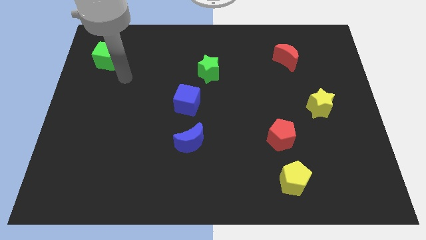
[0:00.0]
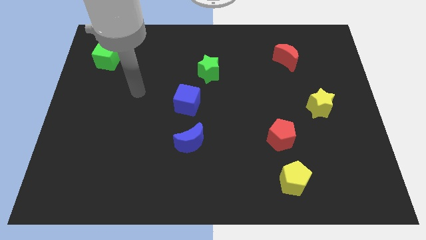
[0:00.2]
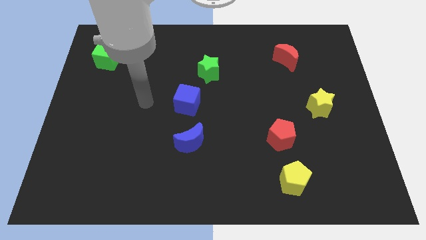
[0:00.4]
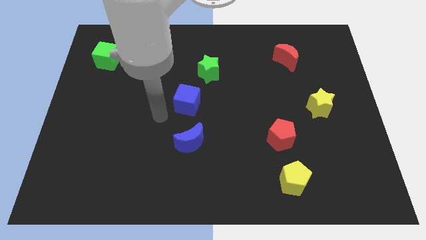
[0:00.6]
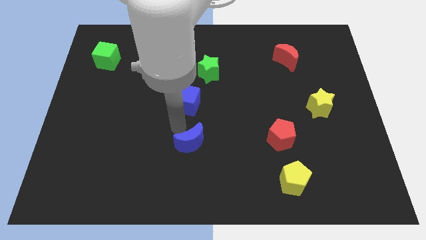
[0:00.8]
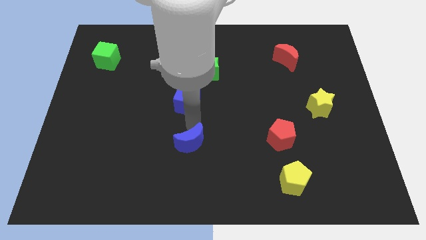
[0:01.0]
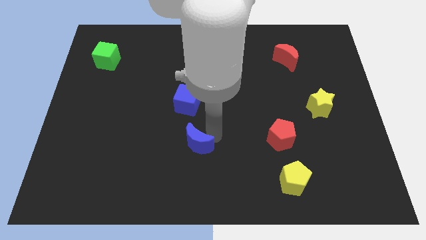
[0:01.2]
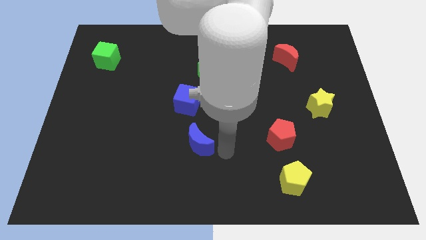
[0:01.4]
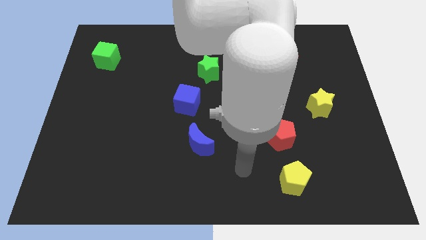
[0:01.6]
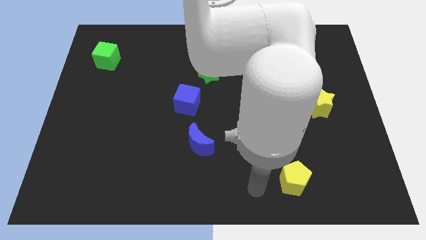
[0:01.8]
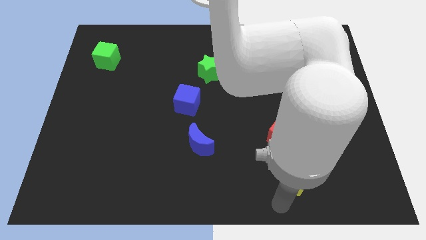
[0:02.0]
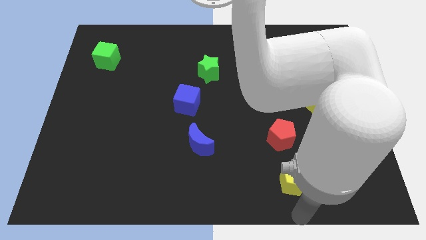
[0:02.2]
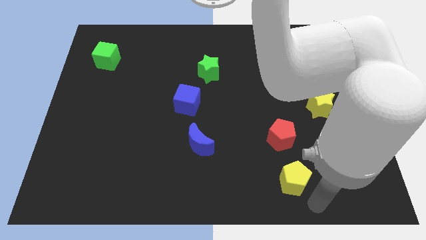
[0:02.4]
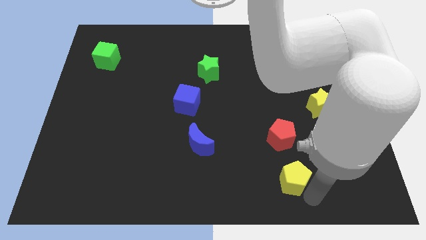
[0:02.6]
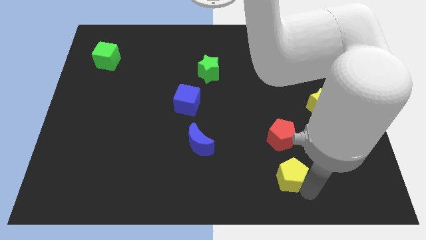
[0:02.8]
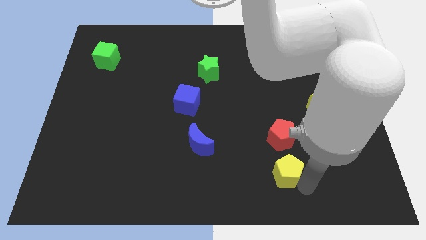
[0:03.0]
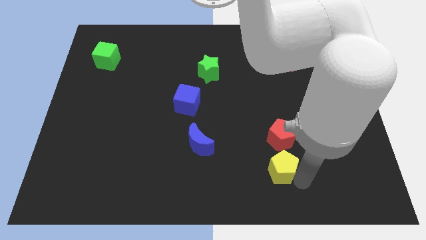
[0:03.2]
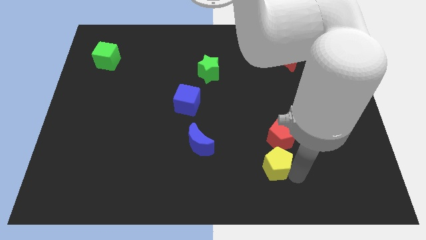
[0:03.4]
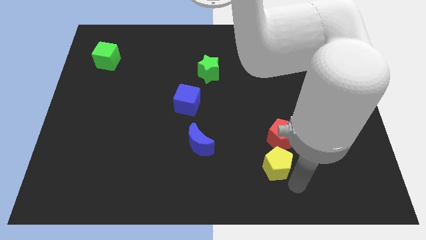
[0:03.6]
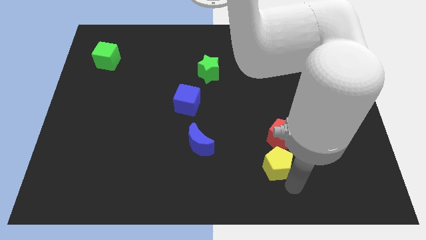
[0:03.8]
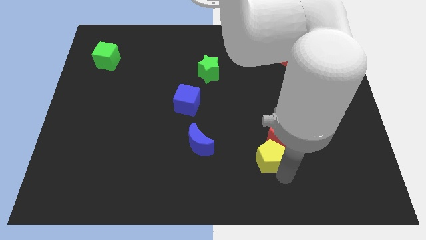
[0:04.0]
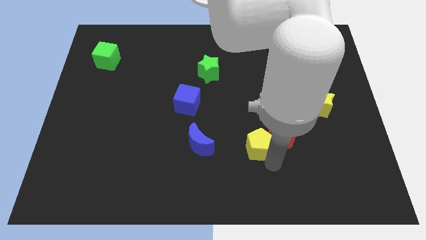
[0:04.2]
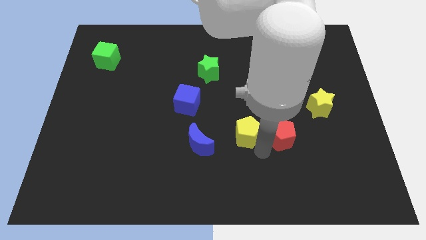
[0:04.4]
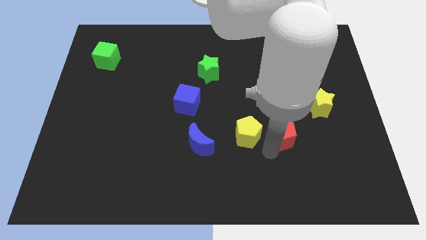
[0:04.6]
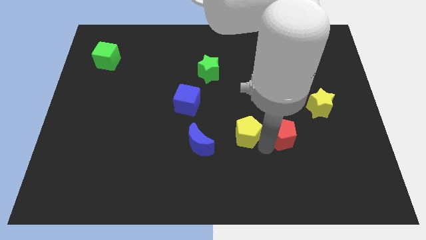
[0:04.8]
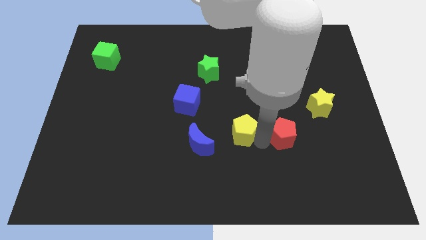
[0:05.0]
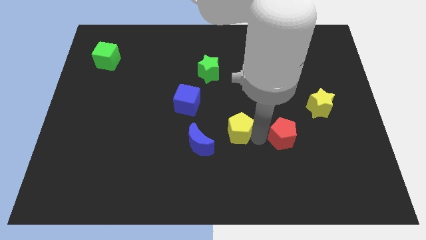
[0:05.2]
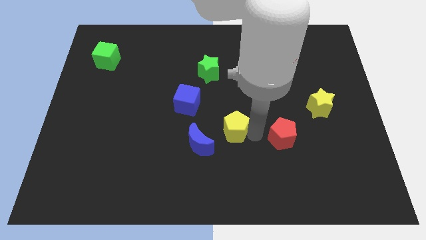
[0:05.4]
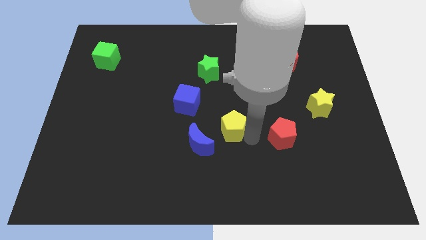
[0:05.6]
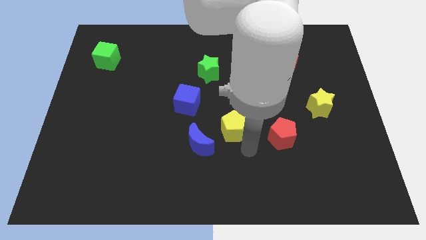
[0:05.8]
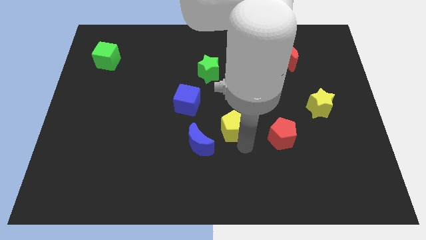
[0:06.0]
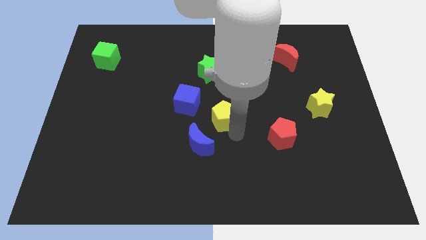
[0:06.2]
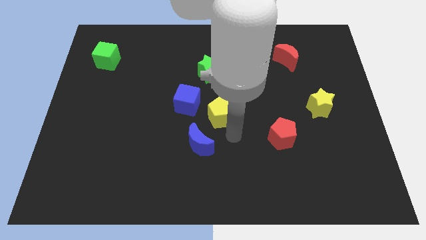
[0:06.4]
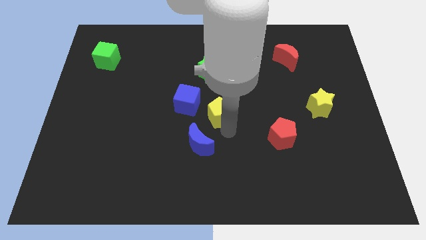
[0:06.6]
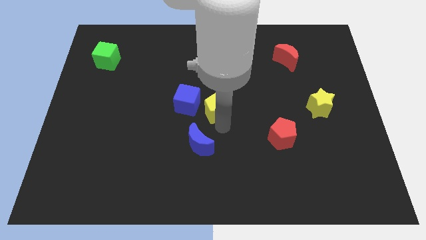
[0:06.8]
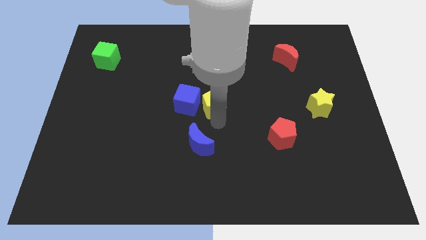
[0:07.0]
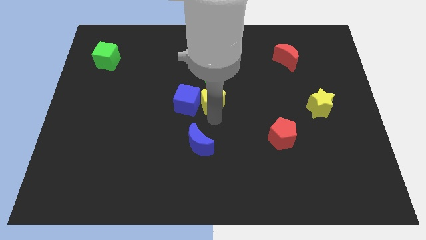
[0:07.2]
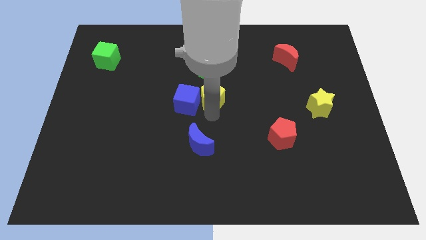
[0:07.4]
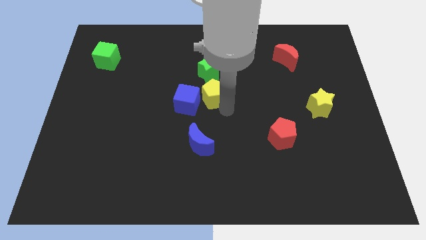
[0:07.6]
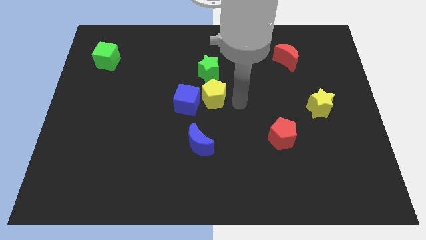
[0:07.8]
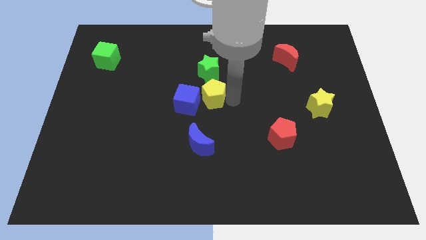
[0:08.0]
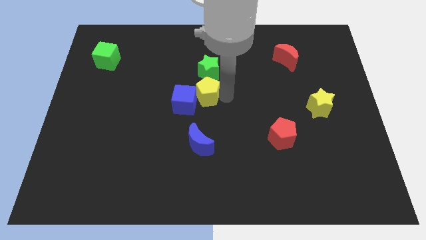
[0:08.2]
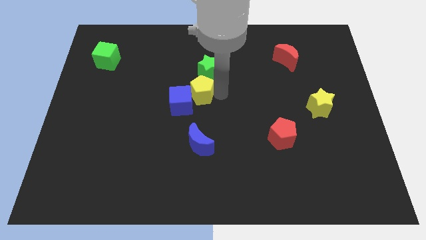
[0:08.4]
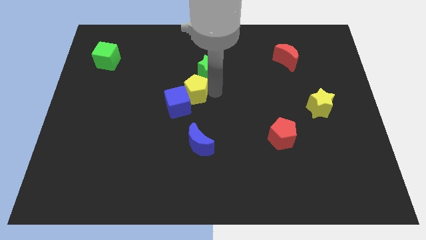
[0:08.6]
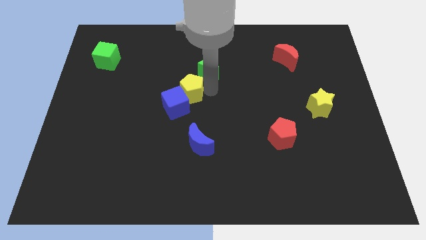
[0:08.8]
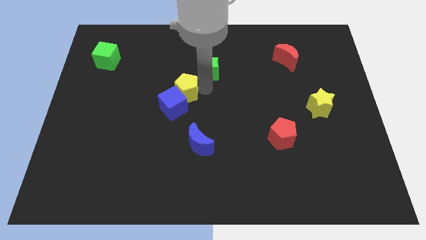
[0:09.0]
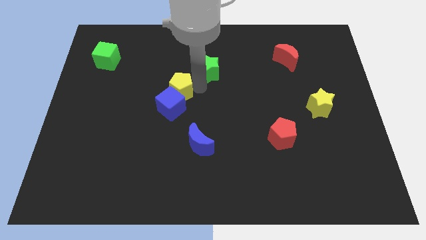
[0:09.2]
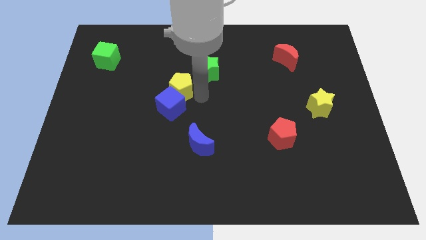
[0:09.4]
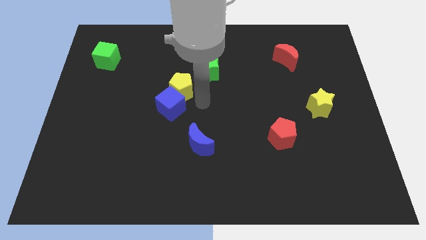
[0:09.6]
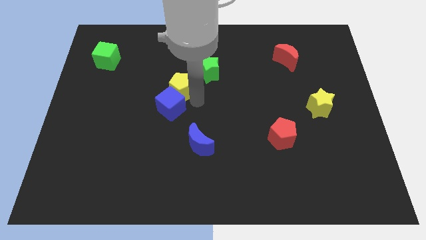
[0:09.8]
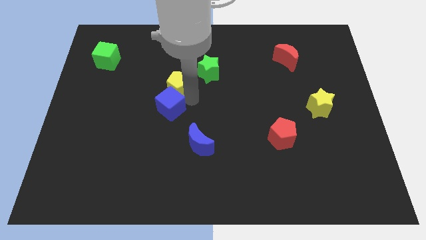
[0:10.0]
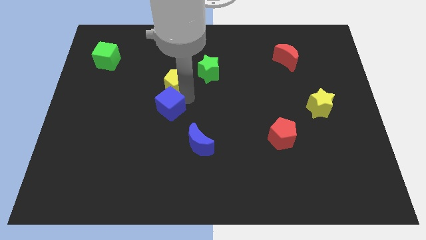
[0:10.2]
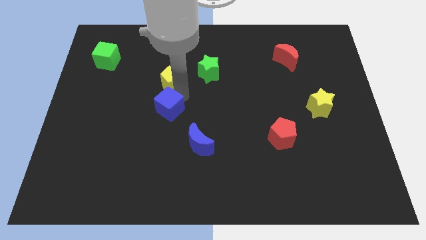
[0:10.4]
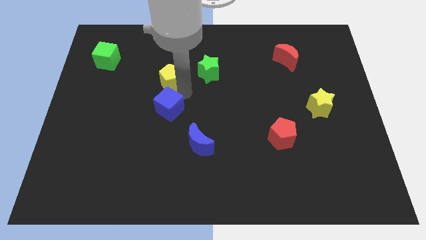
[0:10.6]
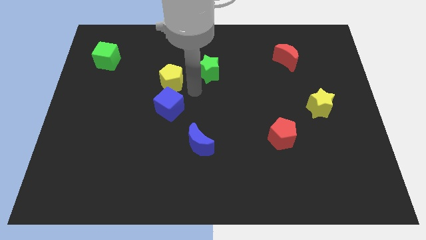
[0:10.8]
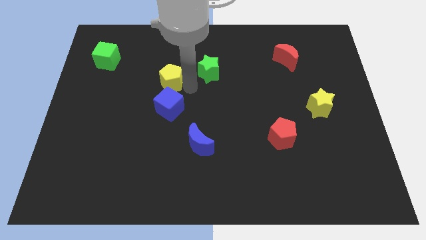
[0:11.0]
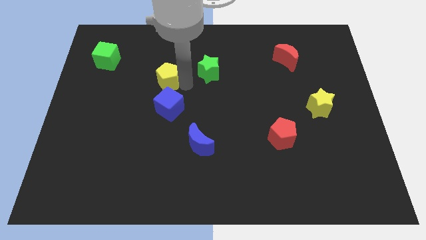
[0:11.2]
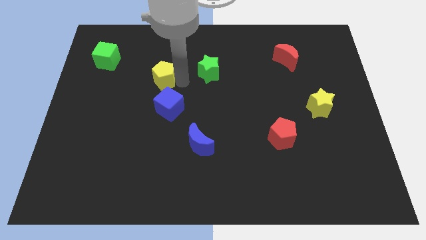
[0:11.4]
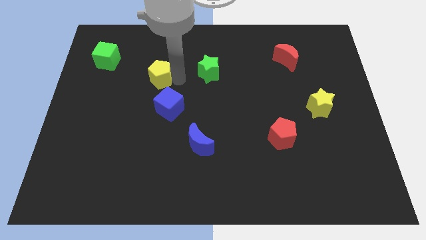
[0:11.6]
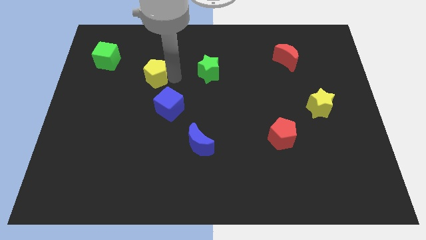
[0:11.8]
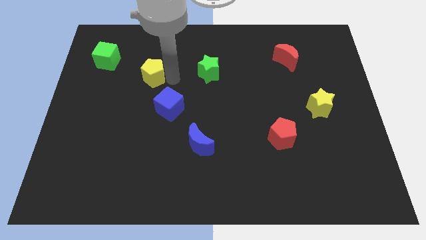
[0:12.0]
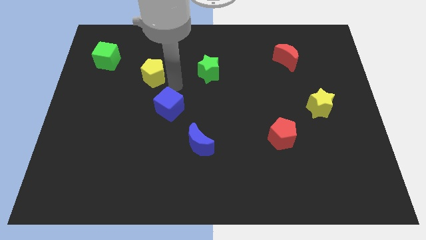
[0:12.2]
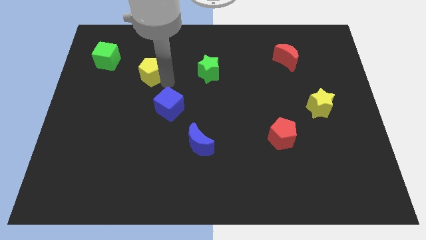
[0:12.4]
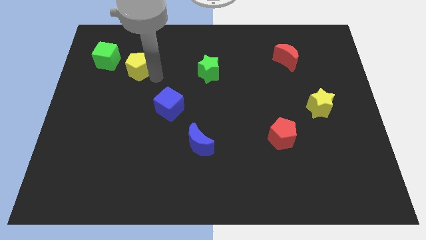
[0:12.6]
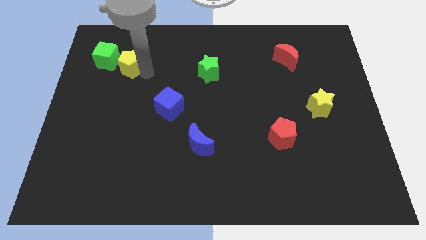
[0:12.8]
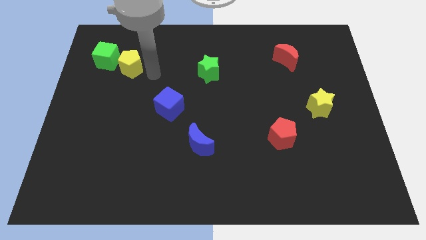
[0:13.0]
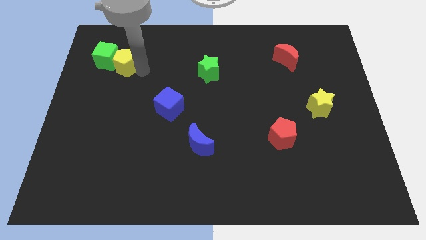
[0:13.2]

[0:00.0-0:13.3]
slide the yellow pentagon towards the green cube

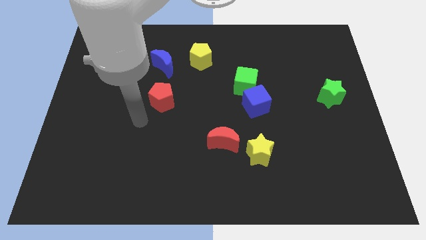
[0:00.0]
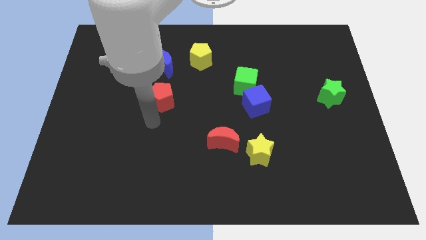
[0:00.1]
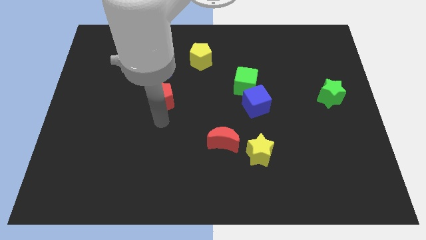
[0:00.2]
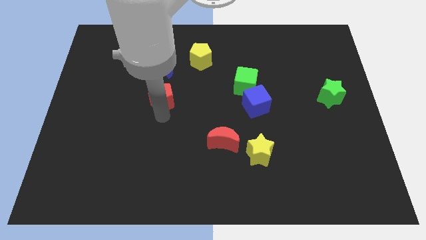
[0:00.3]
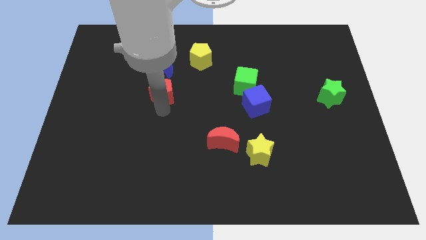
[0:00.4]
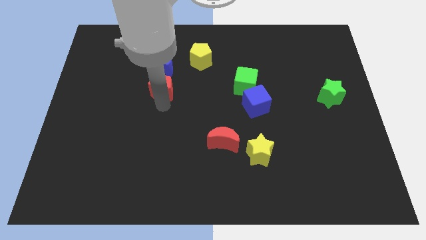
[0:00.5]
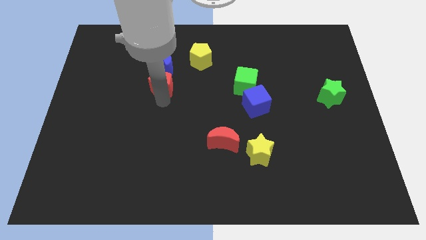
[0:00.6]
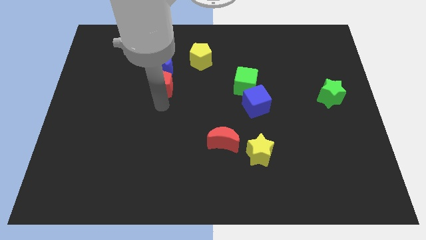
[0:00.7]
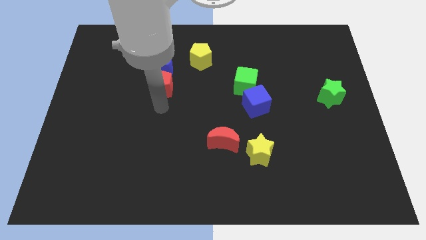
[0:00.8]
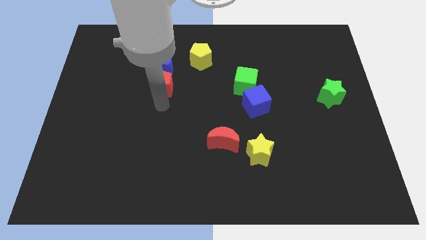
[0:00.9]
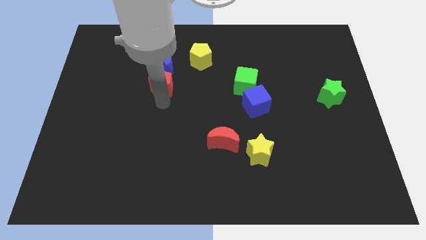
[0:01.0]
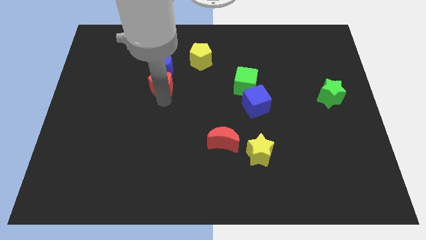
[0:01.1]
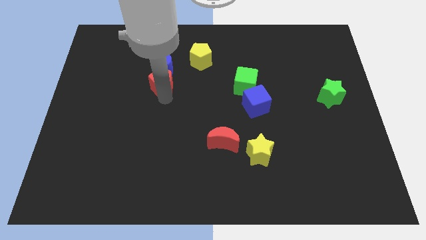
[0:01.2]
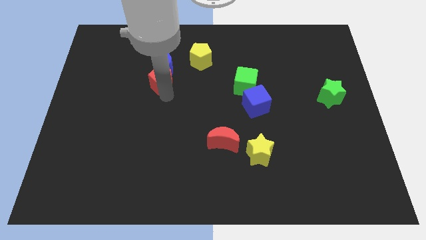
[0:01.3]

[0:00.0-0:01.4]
move the red pentagon to the blue moon
